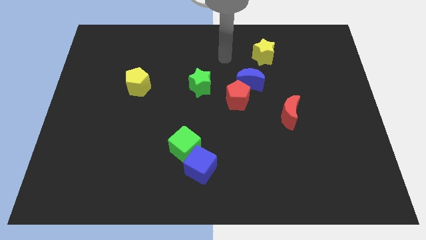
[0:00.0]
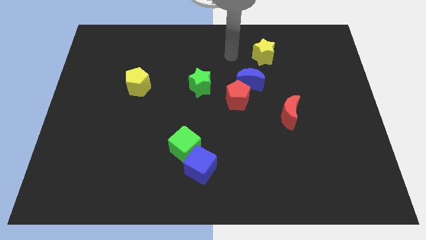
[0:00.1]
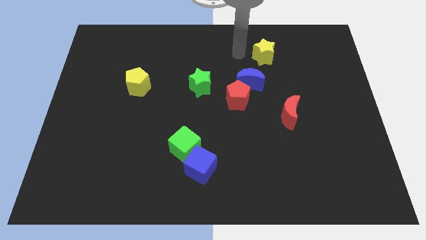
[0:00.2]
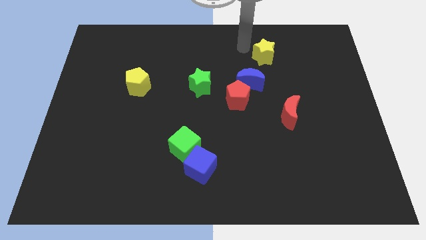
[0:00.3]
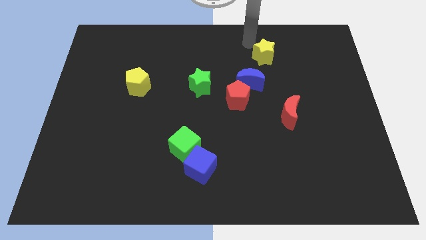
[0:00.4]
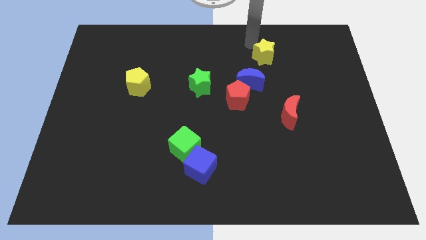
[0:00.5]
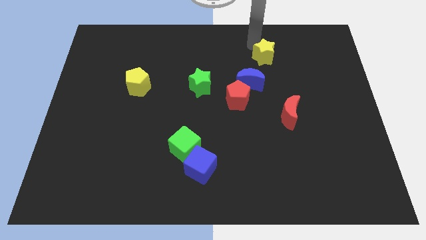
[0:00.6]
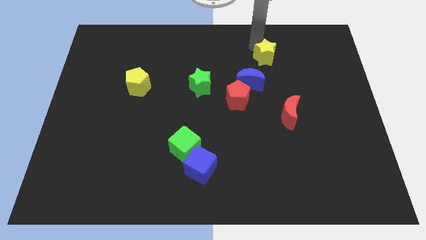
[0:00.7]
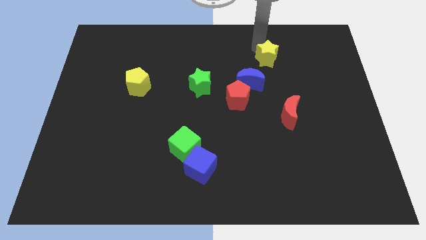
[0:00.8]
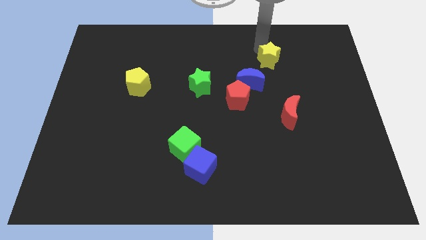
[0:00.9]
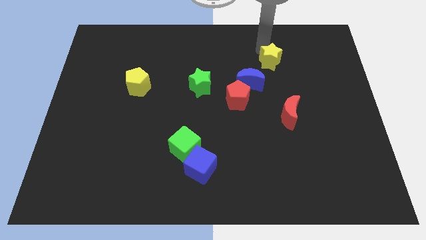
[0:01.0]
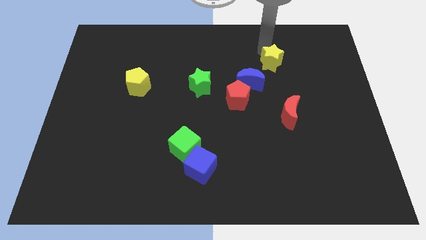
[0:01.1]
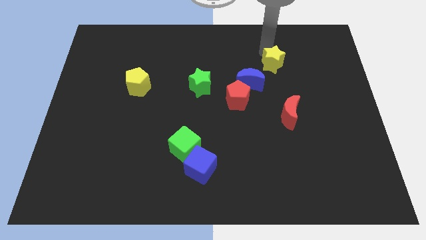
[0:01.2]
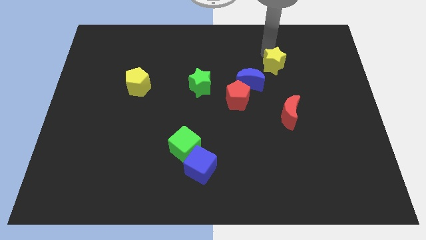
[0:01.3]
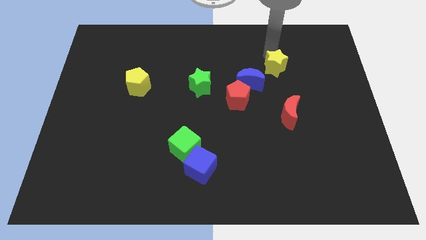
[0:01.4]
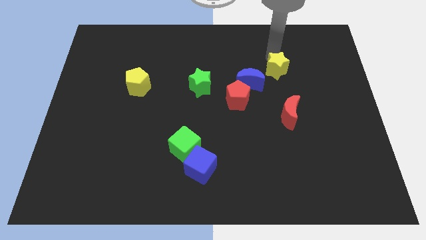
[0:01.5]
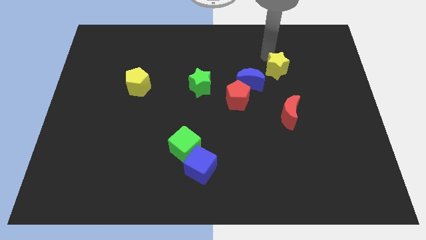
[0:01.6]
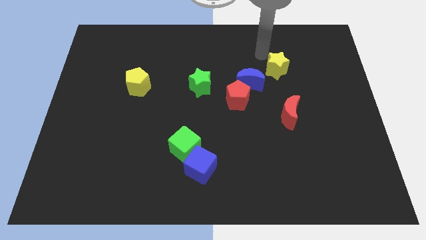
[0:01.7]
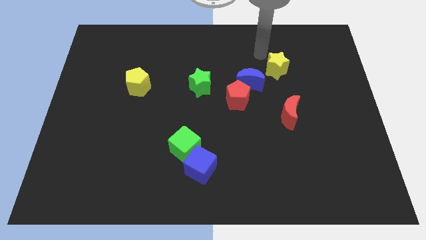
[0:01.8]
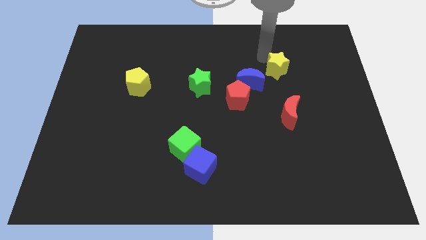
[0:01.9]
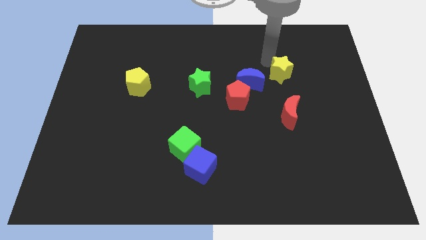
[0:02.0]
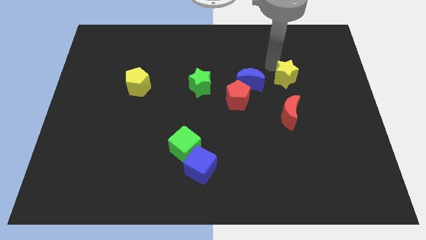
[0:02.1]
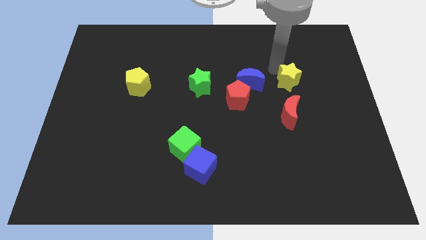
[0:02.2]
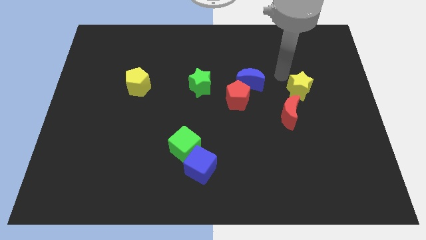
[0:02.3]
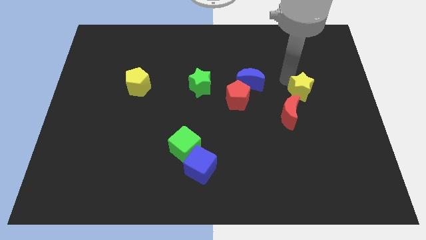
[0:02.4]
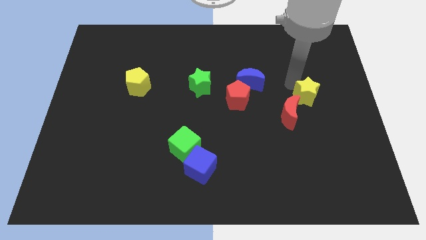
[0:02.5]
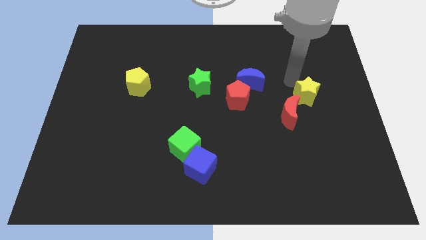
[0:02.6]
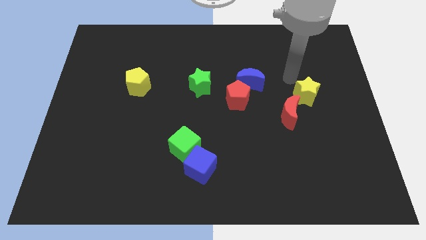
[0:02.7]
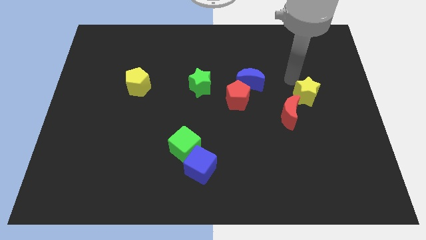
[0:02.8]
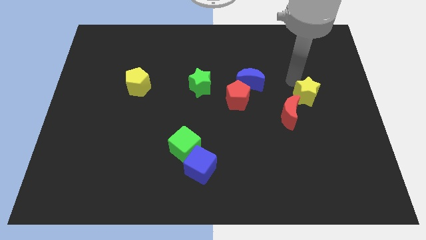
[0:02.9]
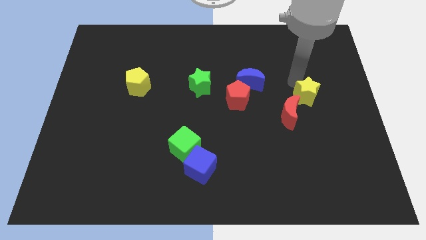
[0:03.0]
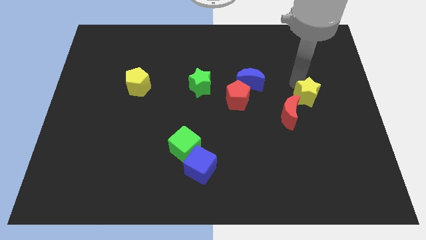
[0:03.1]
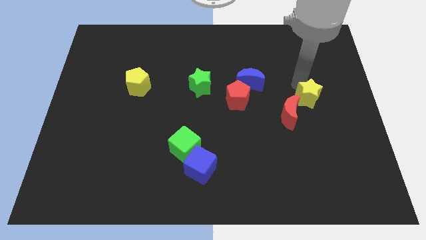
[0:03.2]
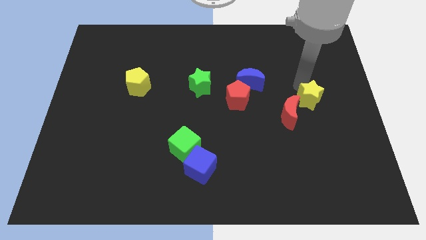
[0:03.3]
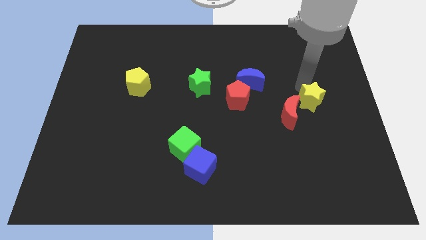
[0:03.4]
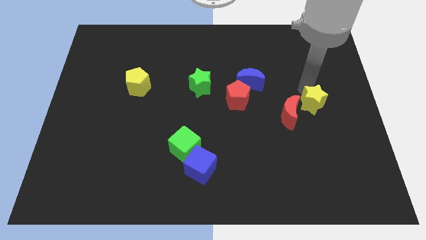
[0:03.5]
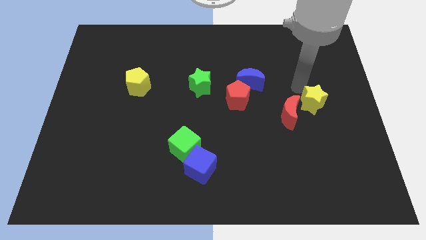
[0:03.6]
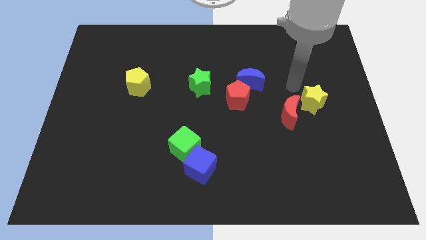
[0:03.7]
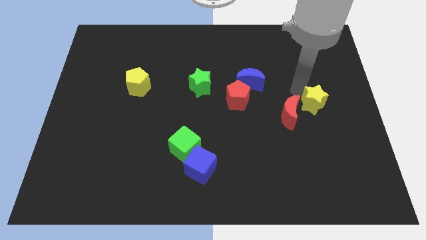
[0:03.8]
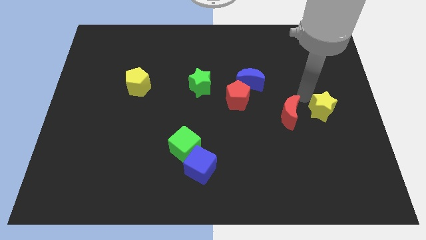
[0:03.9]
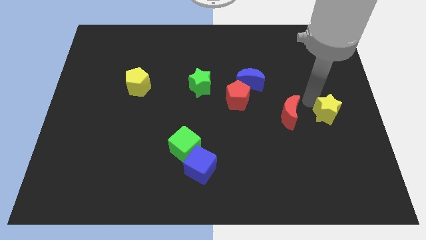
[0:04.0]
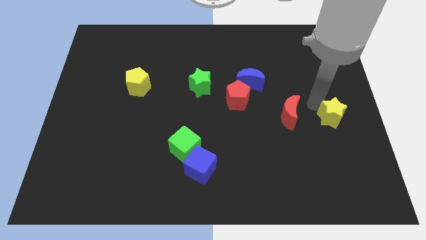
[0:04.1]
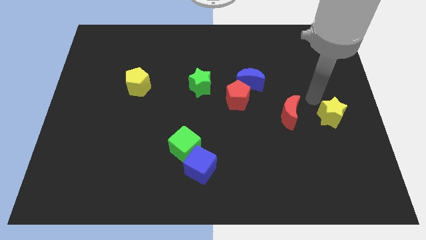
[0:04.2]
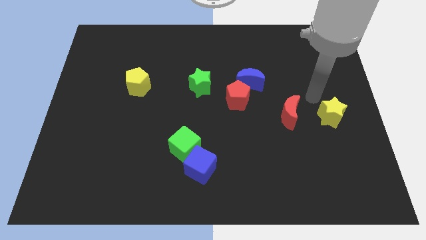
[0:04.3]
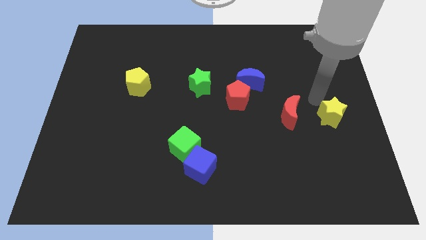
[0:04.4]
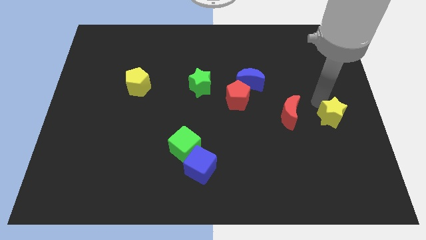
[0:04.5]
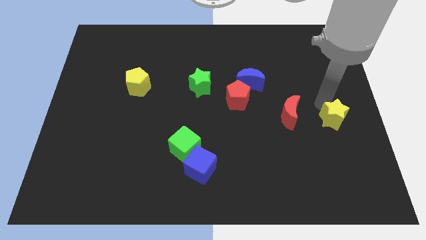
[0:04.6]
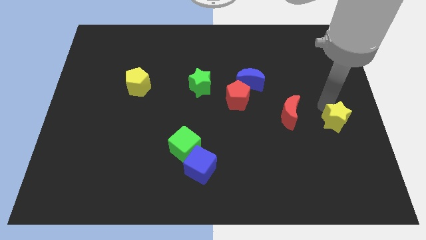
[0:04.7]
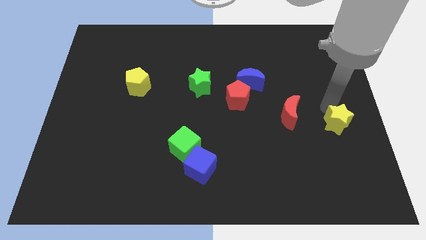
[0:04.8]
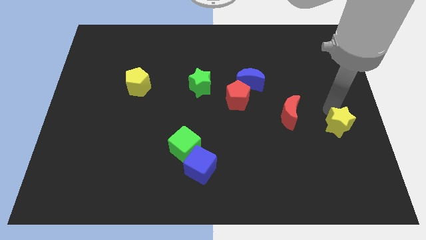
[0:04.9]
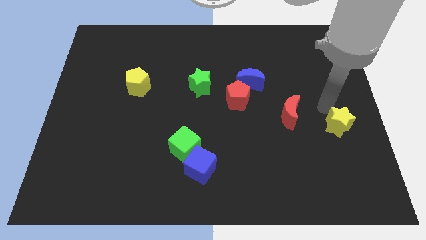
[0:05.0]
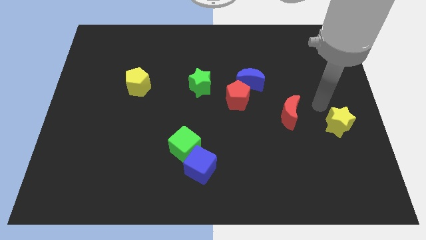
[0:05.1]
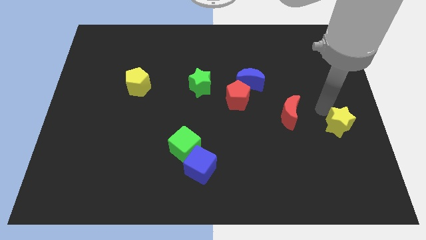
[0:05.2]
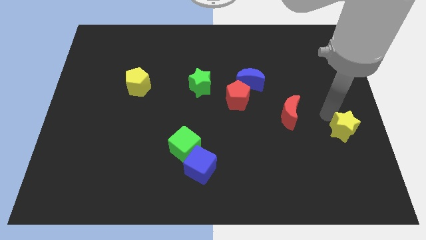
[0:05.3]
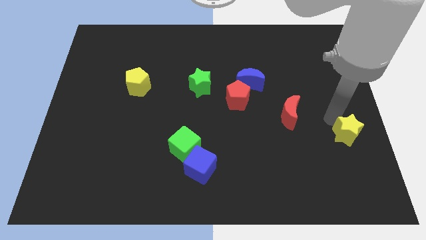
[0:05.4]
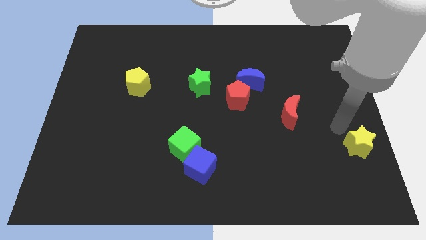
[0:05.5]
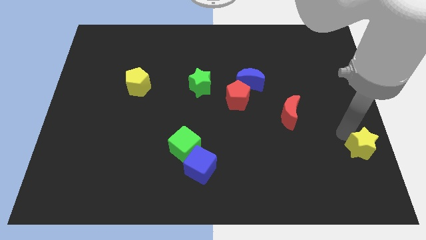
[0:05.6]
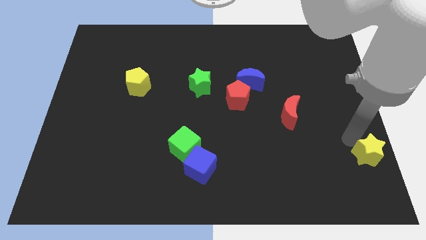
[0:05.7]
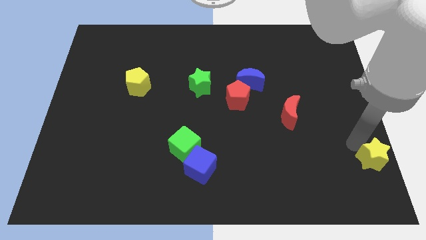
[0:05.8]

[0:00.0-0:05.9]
slide the yellow star to the bottom right of the board
